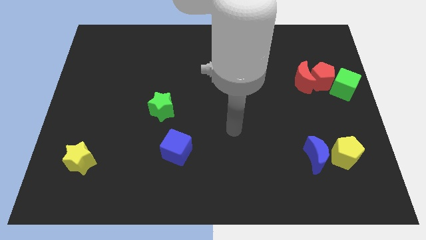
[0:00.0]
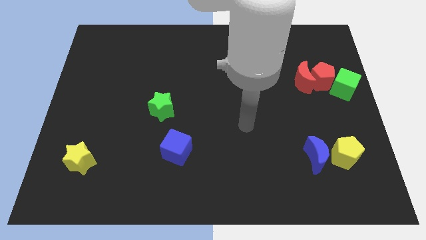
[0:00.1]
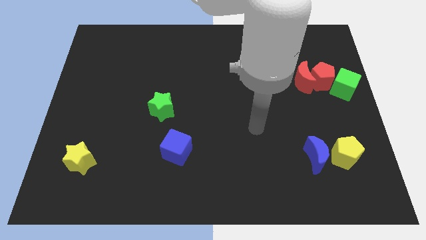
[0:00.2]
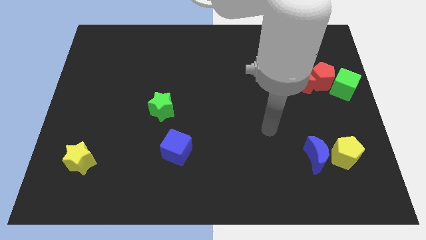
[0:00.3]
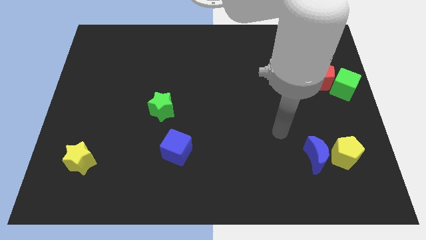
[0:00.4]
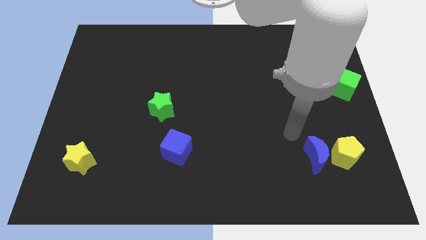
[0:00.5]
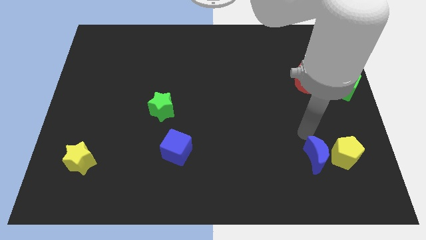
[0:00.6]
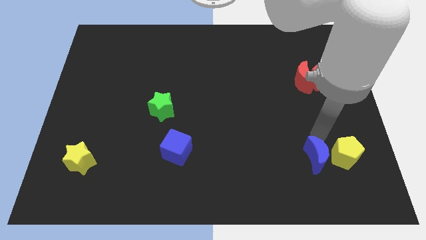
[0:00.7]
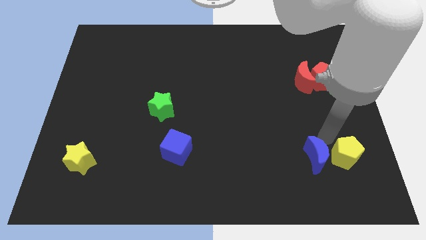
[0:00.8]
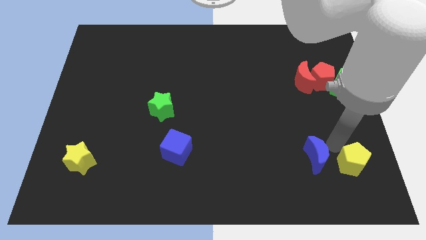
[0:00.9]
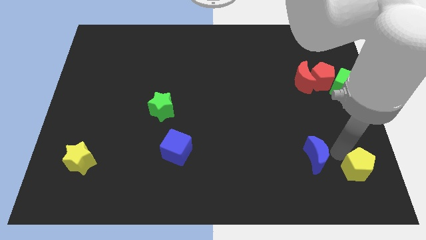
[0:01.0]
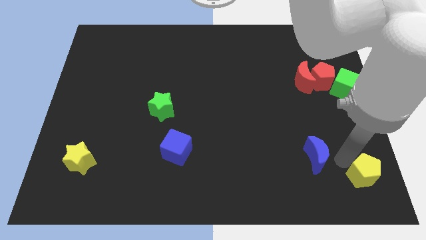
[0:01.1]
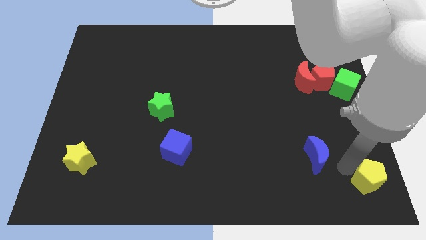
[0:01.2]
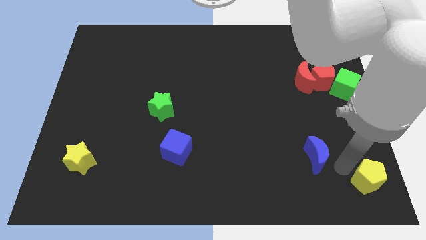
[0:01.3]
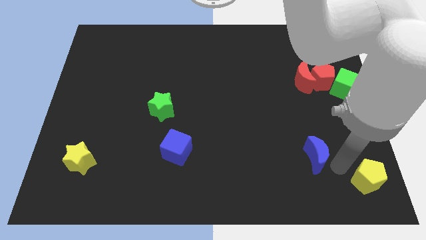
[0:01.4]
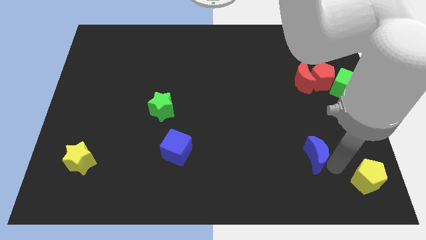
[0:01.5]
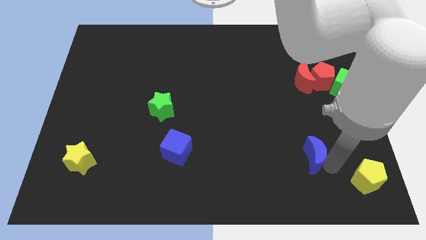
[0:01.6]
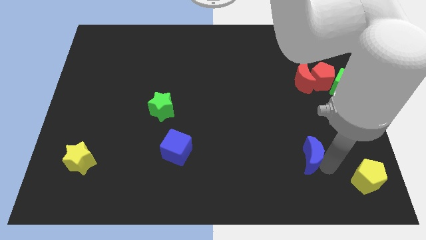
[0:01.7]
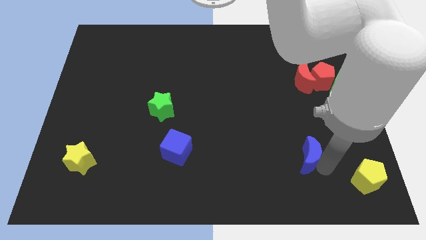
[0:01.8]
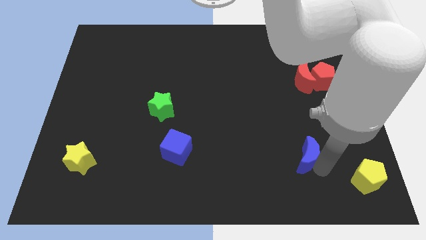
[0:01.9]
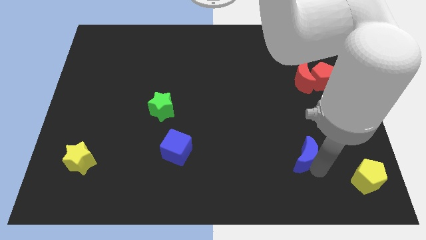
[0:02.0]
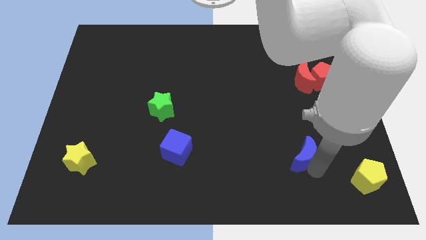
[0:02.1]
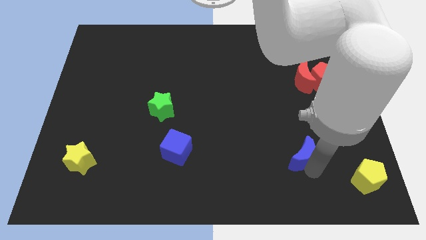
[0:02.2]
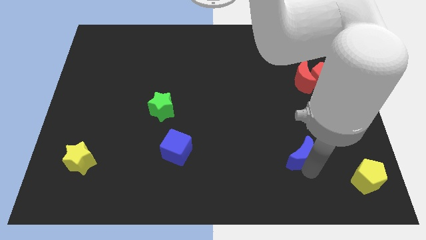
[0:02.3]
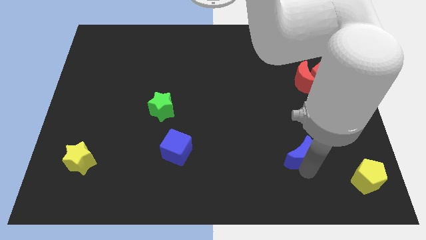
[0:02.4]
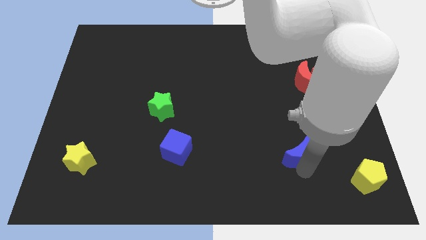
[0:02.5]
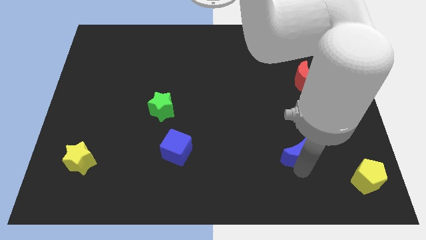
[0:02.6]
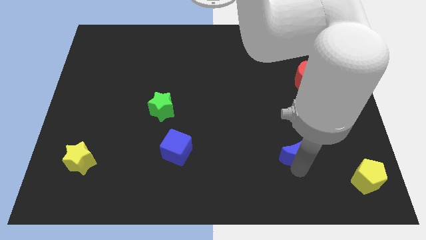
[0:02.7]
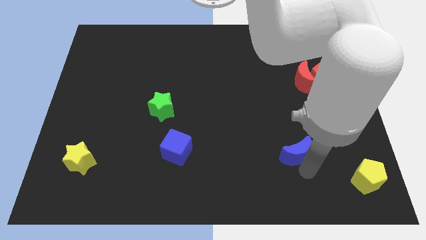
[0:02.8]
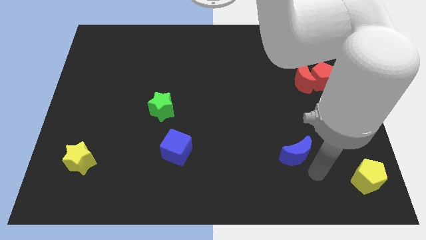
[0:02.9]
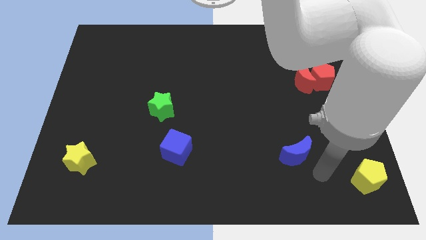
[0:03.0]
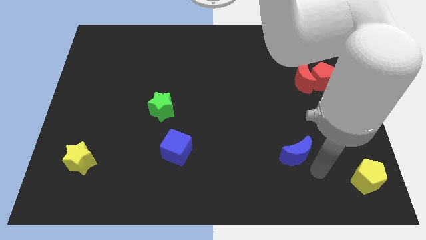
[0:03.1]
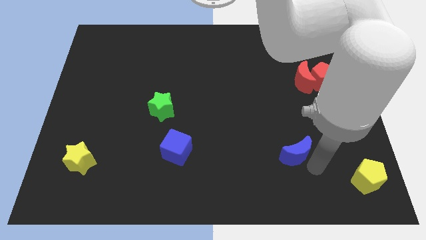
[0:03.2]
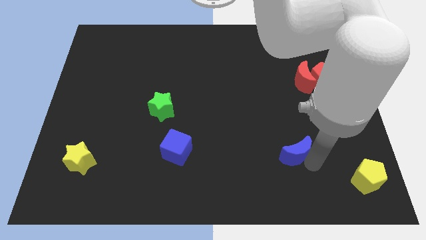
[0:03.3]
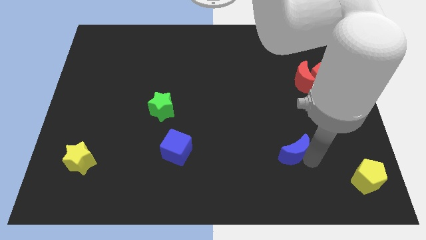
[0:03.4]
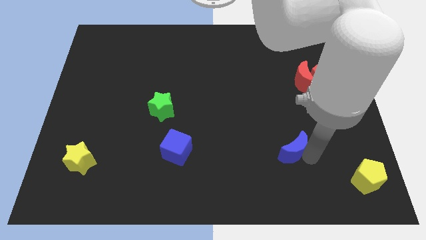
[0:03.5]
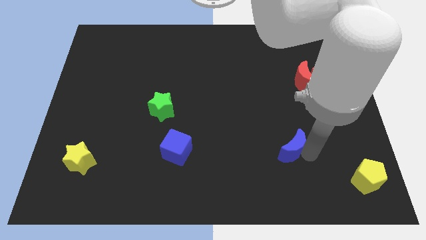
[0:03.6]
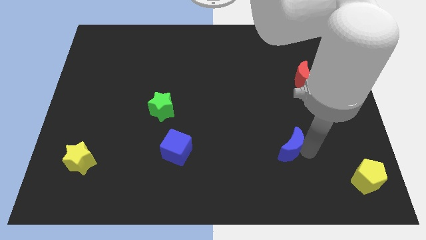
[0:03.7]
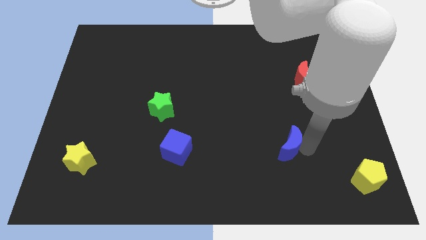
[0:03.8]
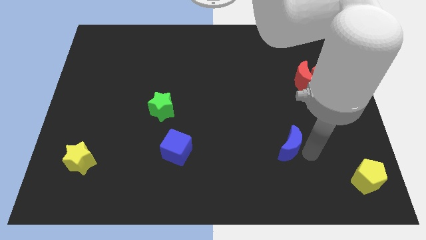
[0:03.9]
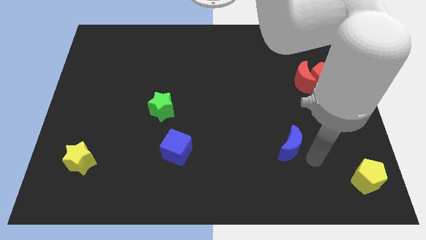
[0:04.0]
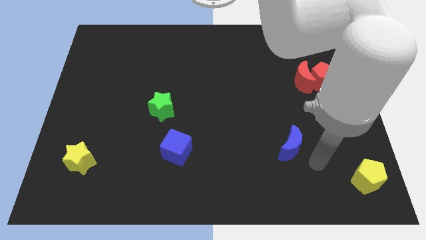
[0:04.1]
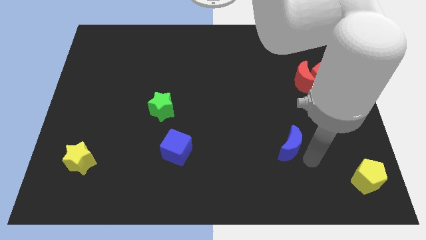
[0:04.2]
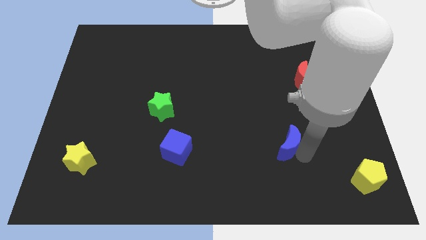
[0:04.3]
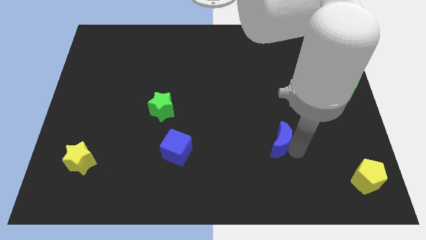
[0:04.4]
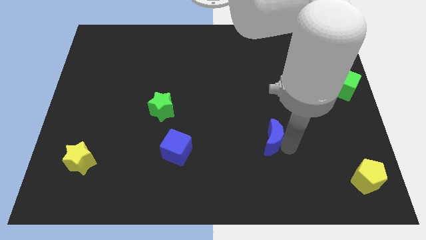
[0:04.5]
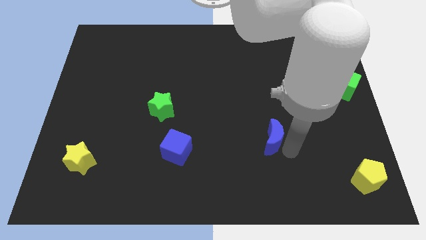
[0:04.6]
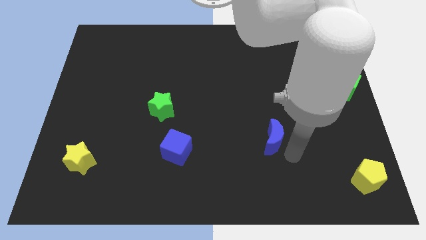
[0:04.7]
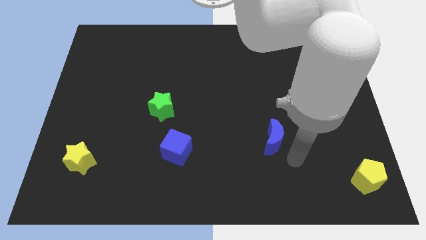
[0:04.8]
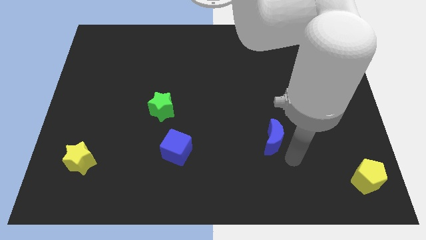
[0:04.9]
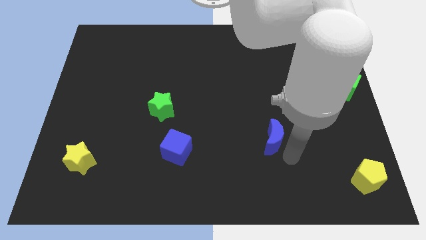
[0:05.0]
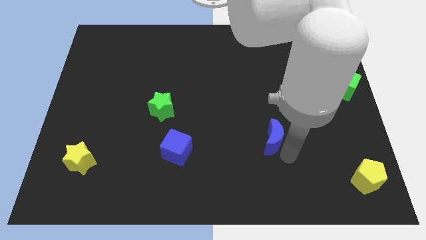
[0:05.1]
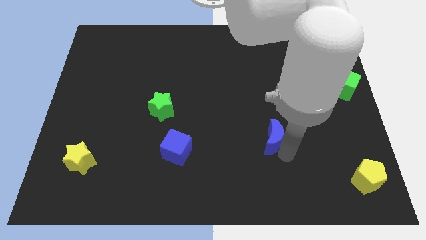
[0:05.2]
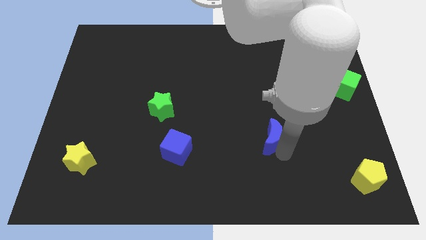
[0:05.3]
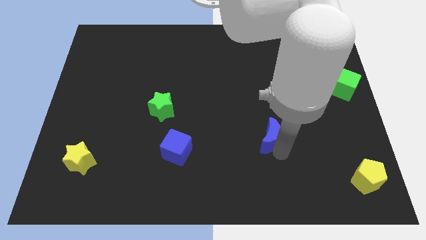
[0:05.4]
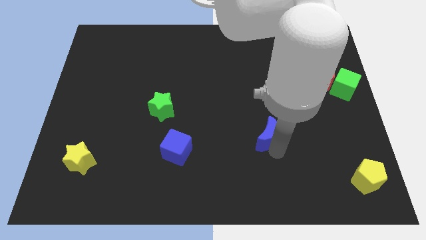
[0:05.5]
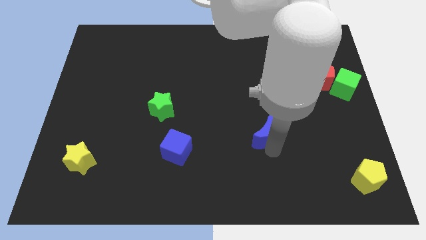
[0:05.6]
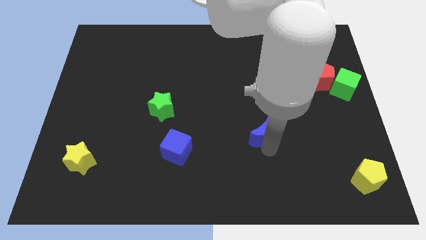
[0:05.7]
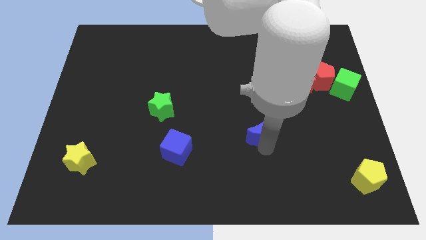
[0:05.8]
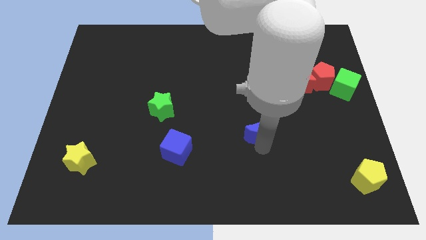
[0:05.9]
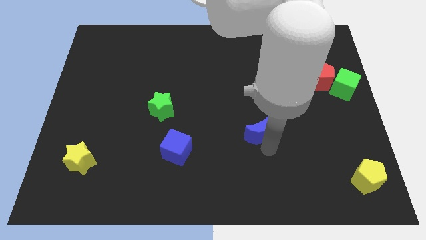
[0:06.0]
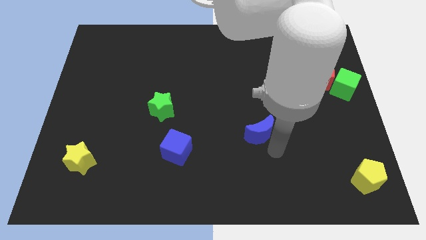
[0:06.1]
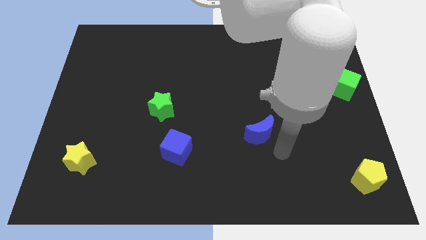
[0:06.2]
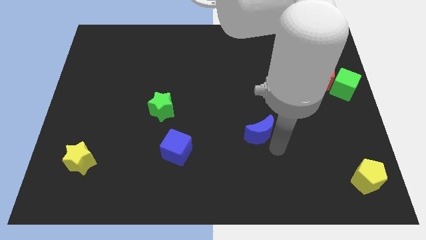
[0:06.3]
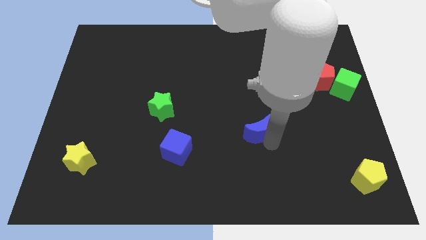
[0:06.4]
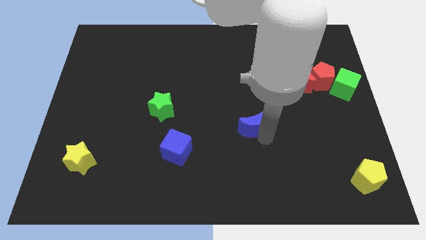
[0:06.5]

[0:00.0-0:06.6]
push the blue moon to the middle of the board
